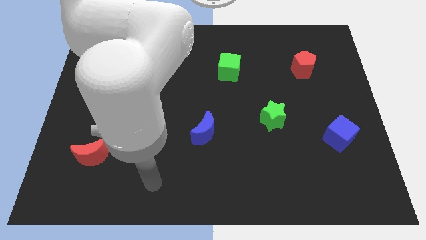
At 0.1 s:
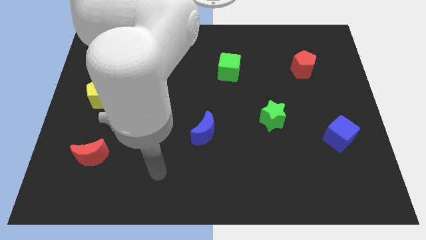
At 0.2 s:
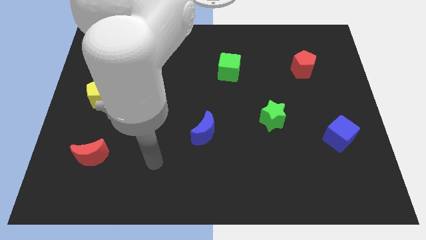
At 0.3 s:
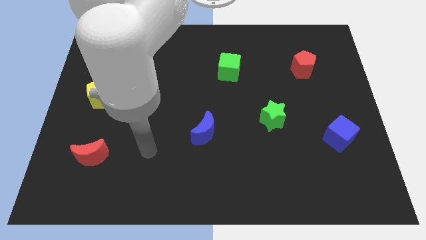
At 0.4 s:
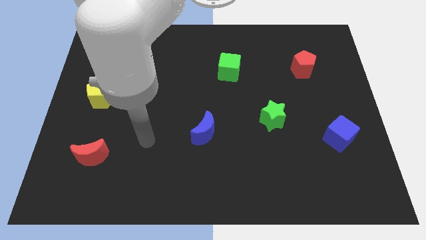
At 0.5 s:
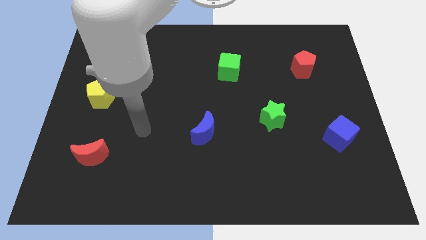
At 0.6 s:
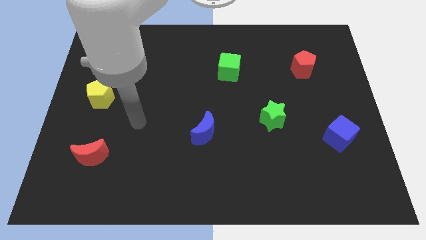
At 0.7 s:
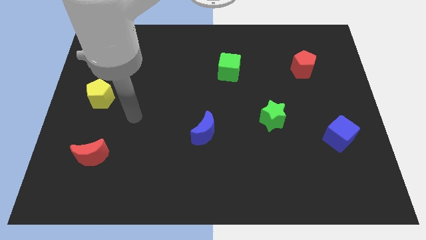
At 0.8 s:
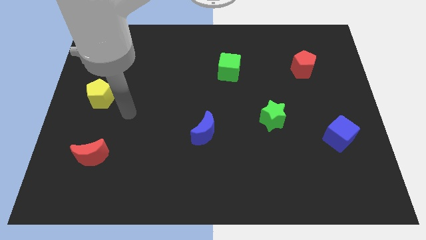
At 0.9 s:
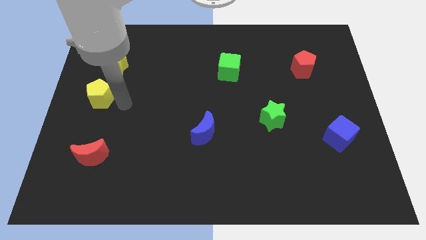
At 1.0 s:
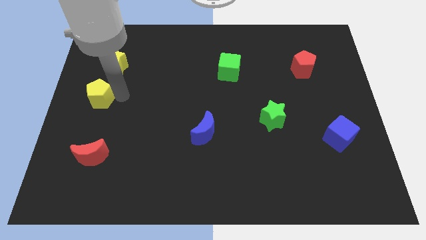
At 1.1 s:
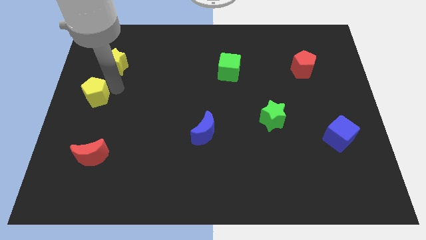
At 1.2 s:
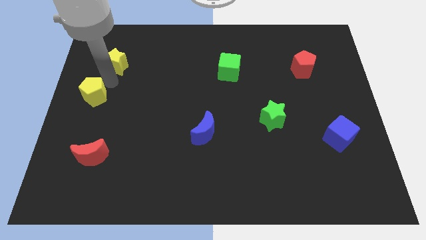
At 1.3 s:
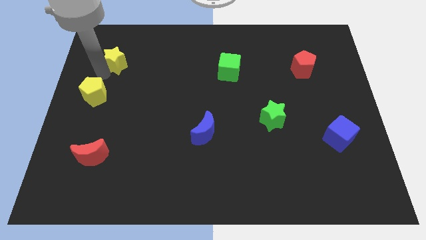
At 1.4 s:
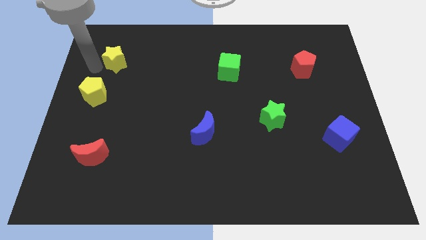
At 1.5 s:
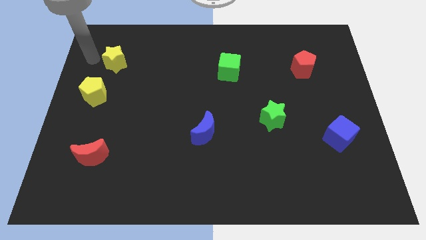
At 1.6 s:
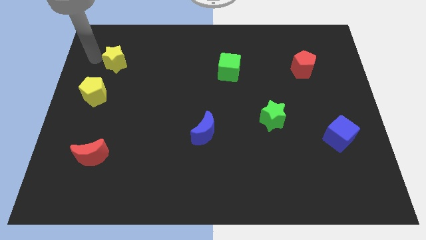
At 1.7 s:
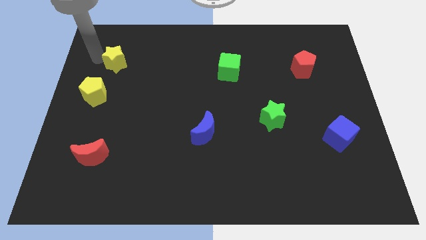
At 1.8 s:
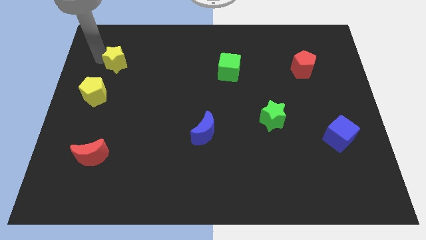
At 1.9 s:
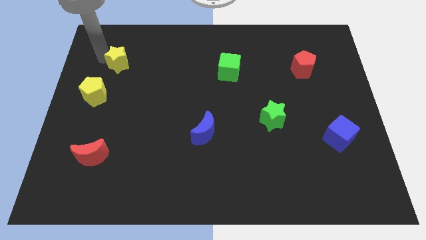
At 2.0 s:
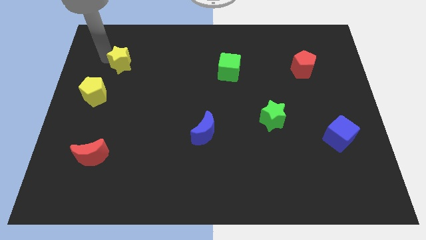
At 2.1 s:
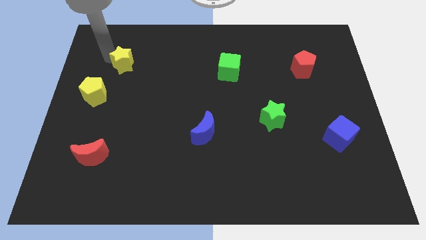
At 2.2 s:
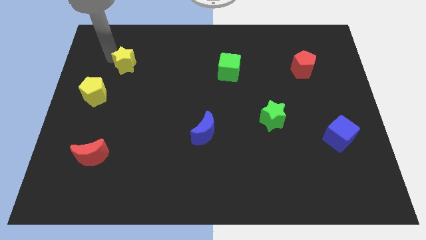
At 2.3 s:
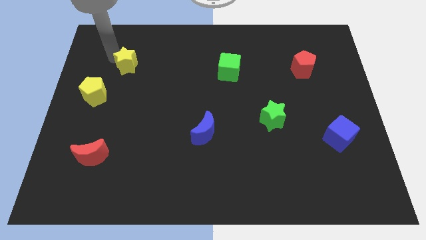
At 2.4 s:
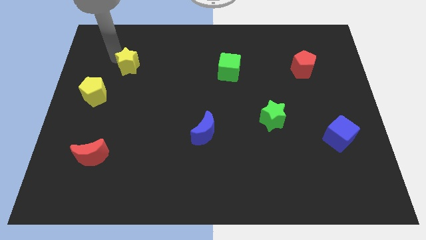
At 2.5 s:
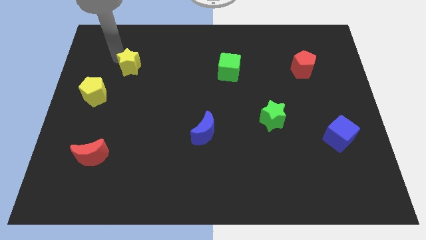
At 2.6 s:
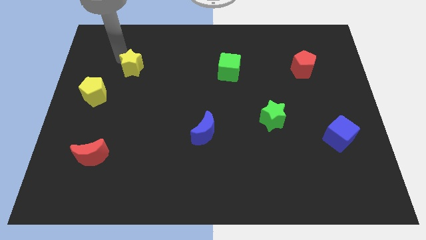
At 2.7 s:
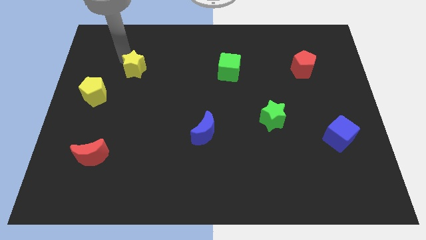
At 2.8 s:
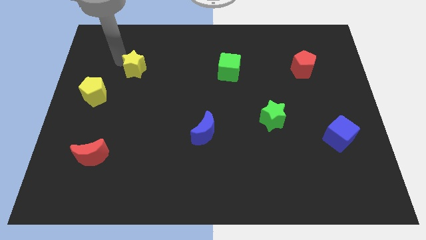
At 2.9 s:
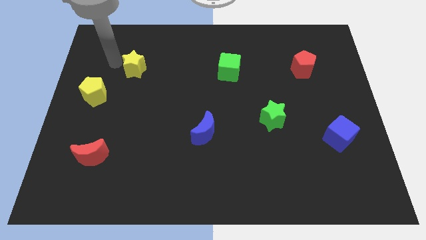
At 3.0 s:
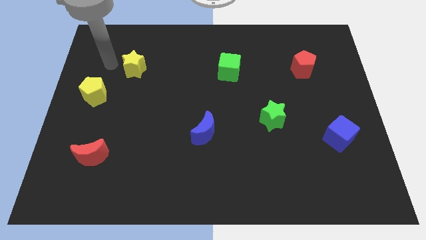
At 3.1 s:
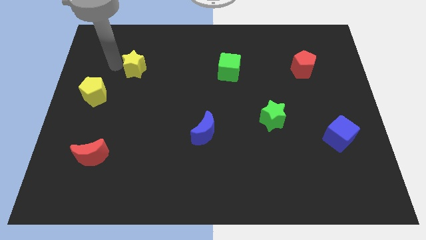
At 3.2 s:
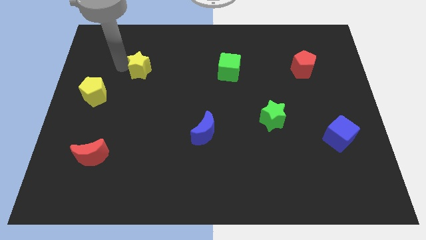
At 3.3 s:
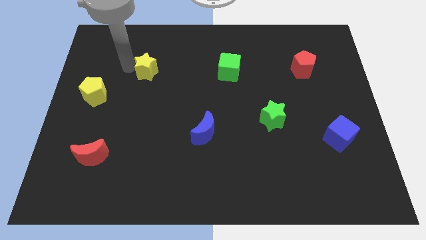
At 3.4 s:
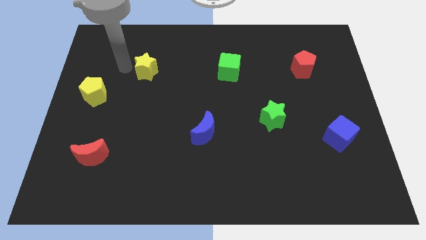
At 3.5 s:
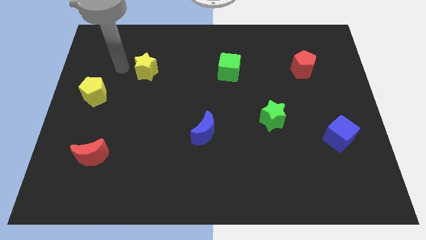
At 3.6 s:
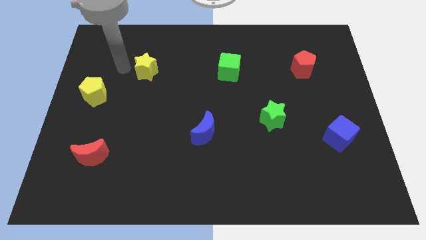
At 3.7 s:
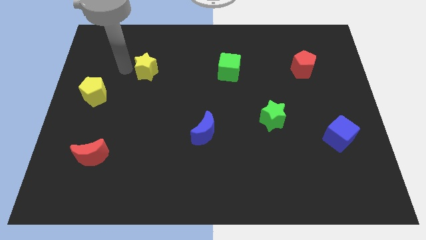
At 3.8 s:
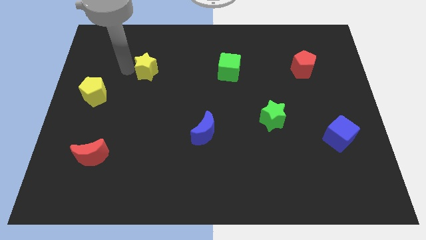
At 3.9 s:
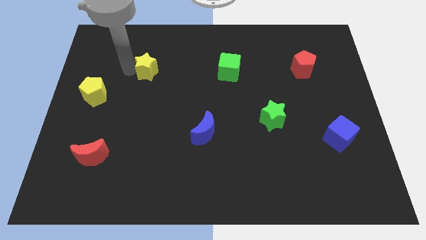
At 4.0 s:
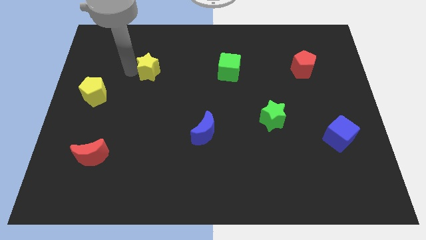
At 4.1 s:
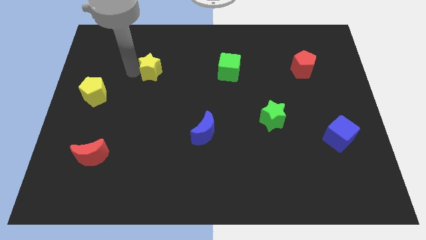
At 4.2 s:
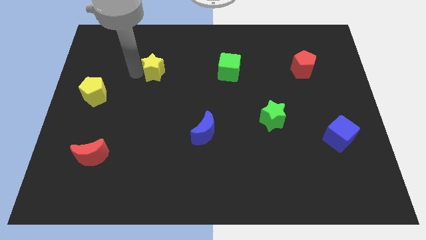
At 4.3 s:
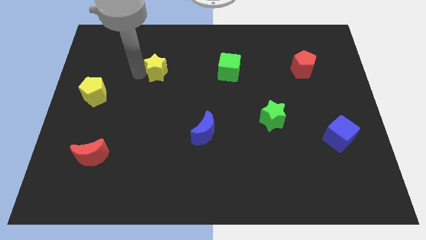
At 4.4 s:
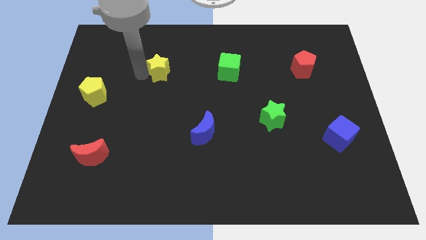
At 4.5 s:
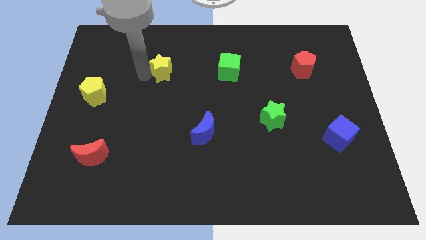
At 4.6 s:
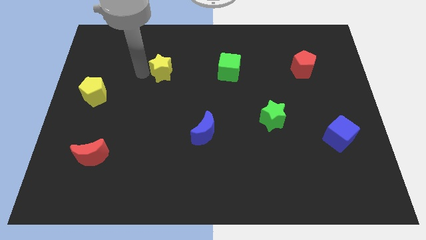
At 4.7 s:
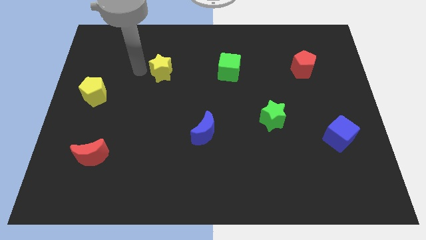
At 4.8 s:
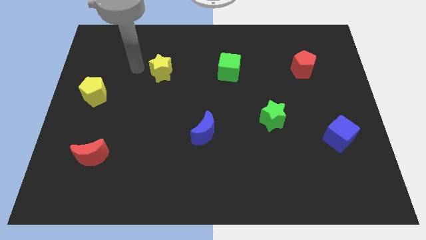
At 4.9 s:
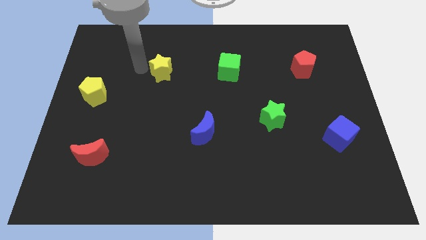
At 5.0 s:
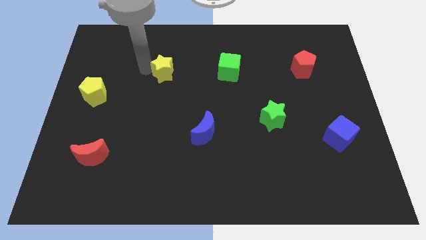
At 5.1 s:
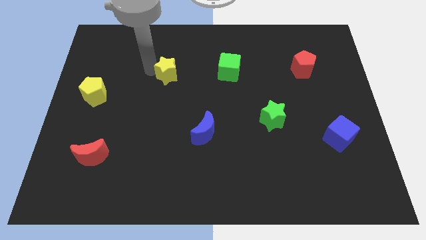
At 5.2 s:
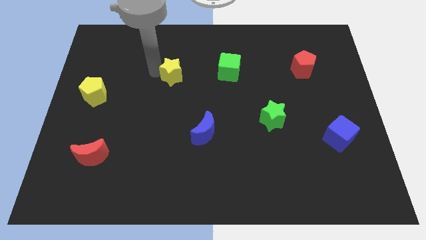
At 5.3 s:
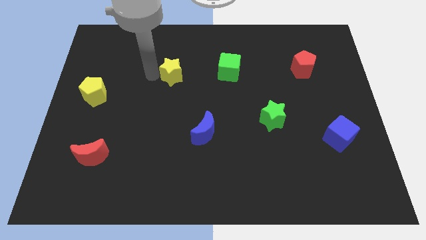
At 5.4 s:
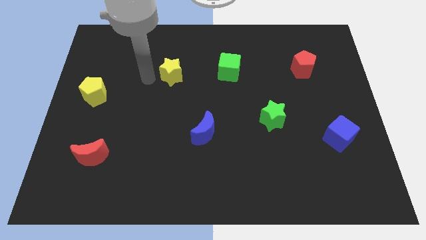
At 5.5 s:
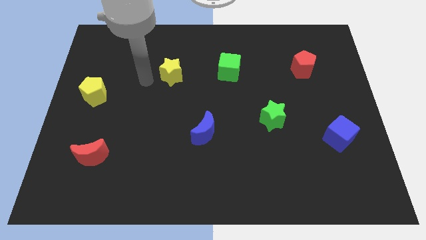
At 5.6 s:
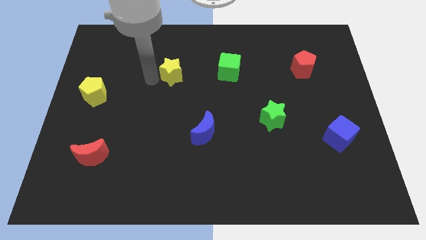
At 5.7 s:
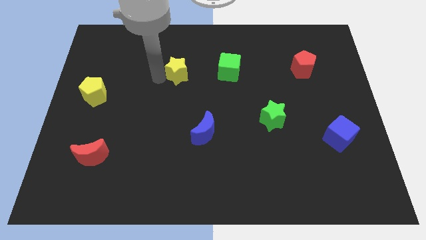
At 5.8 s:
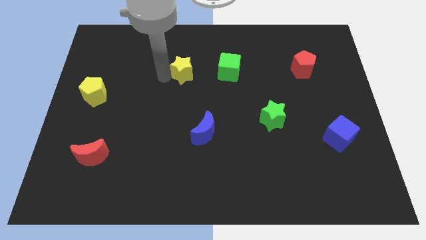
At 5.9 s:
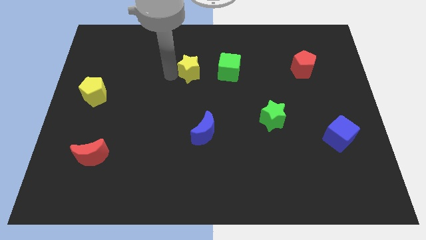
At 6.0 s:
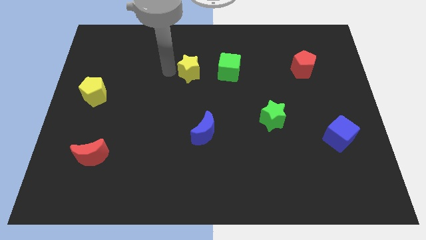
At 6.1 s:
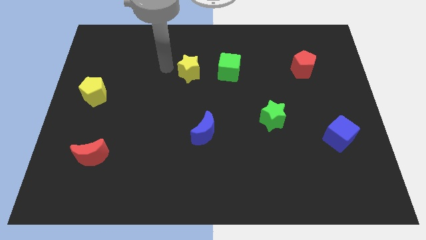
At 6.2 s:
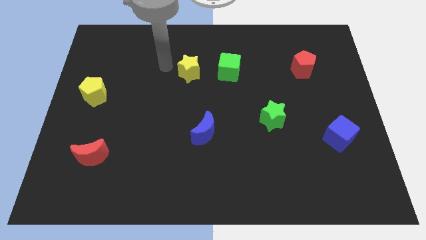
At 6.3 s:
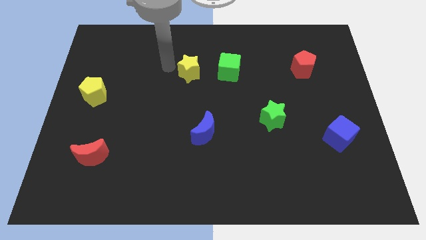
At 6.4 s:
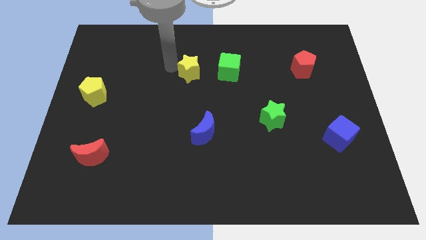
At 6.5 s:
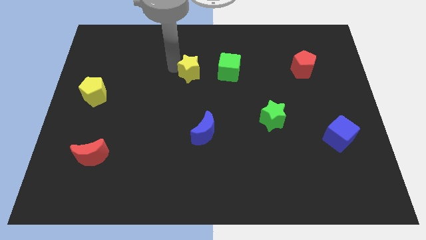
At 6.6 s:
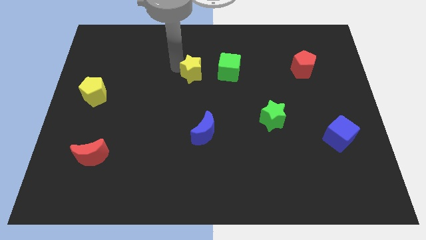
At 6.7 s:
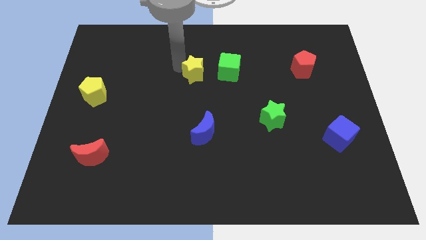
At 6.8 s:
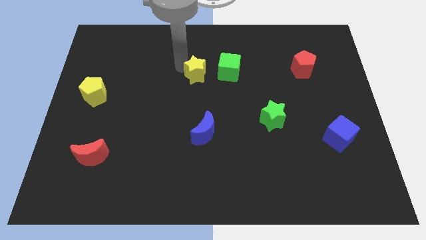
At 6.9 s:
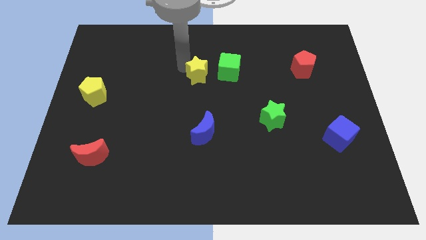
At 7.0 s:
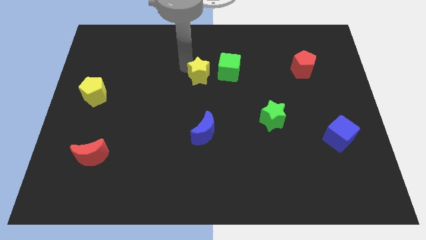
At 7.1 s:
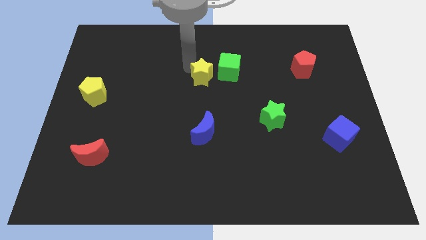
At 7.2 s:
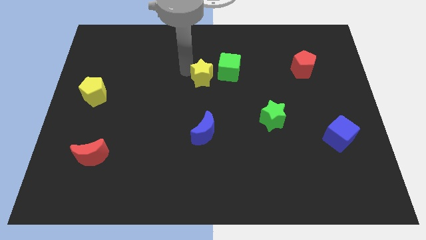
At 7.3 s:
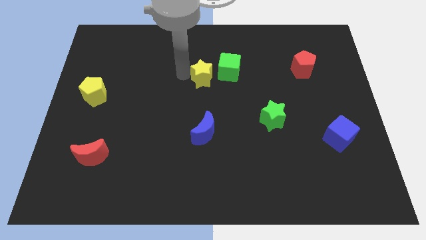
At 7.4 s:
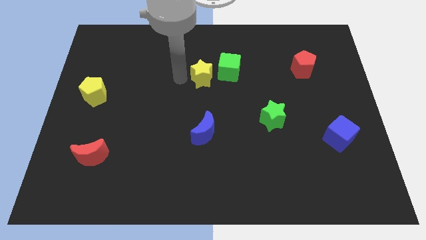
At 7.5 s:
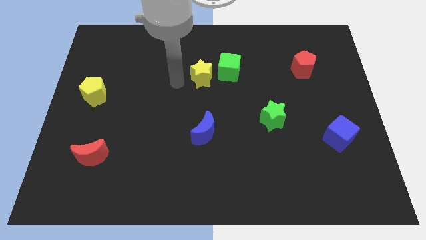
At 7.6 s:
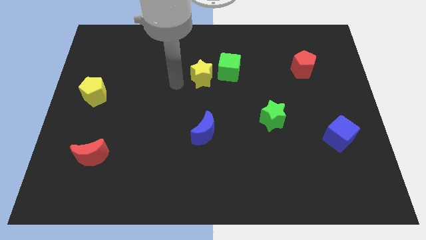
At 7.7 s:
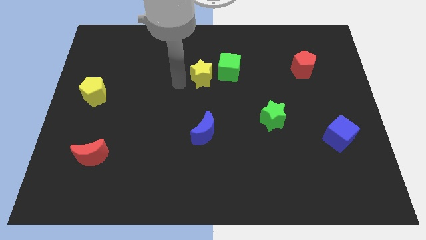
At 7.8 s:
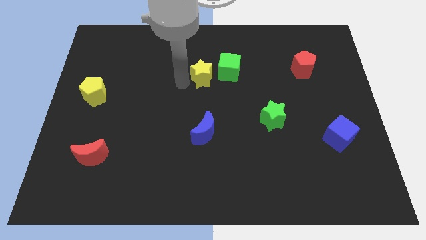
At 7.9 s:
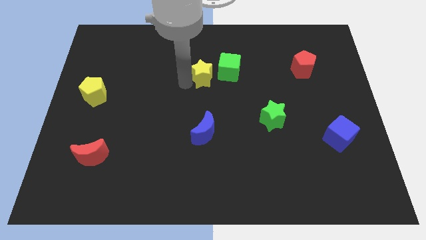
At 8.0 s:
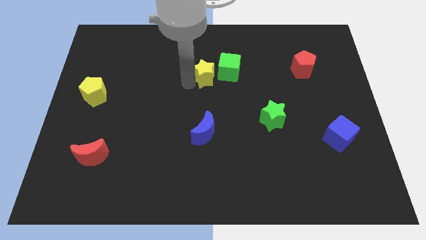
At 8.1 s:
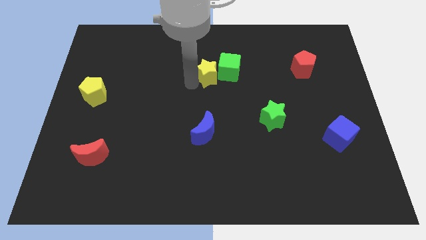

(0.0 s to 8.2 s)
put the yellow star towards the green cube
